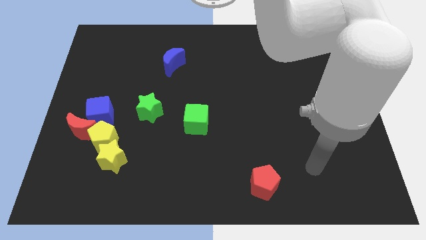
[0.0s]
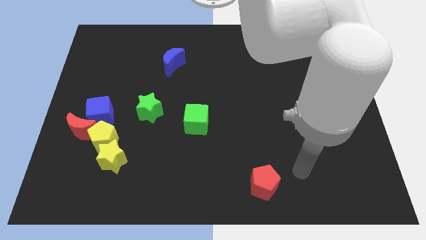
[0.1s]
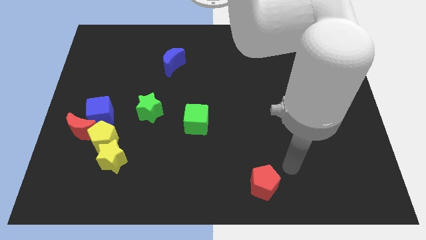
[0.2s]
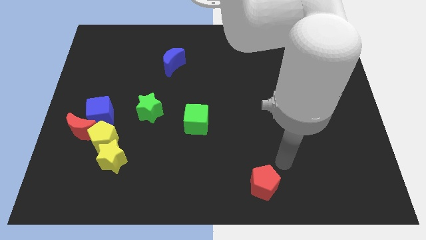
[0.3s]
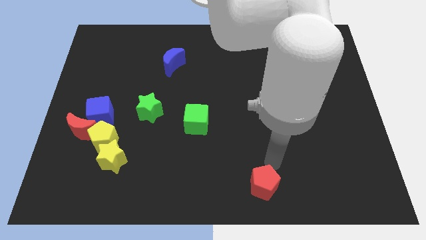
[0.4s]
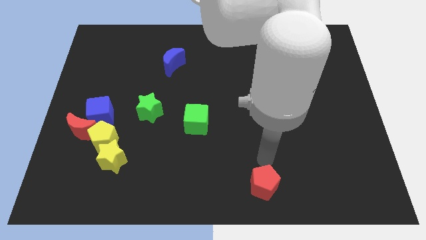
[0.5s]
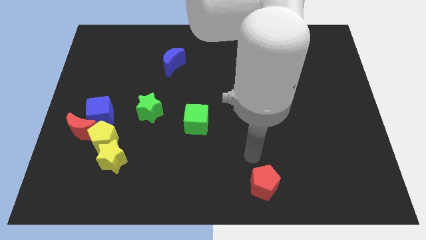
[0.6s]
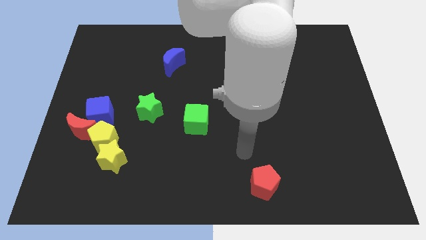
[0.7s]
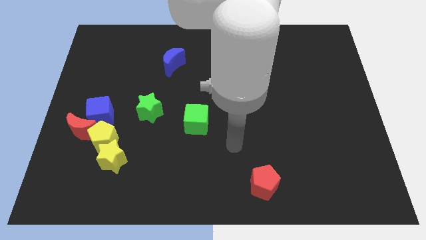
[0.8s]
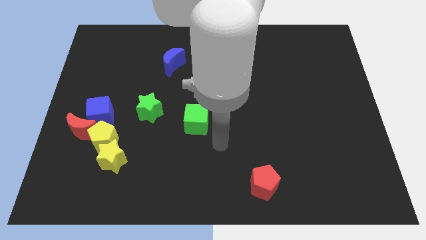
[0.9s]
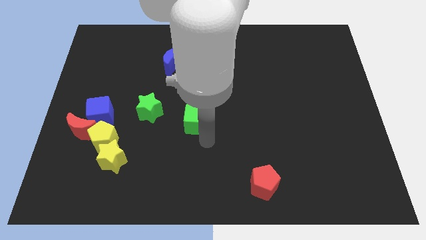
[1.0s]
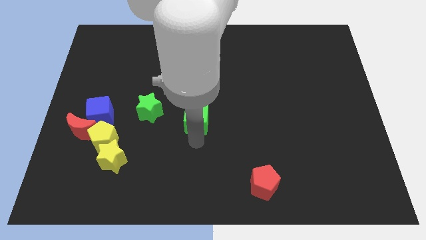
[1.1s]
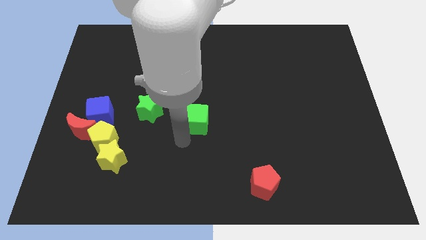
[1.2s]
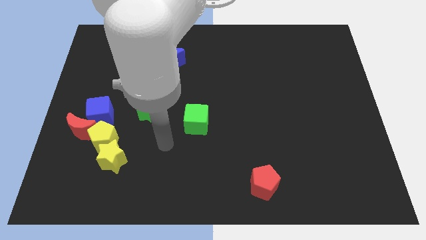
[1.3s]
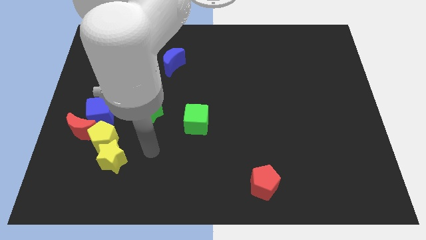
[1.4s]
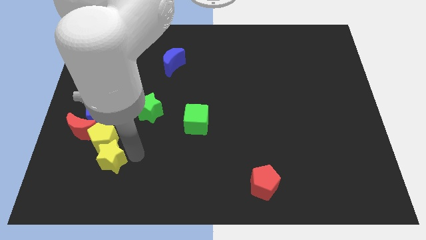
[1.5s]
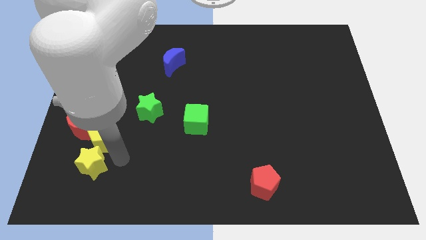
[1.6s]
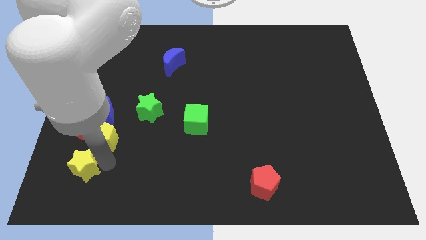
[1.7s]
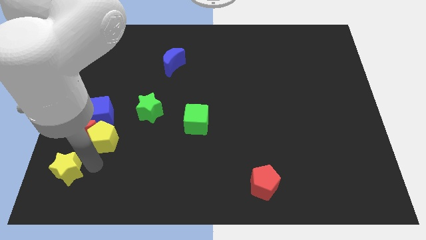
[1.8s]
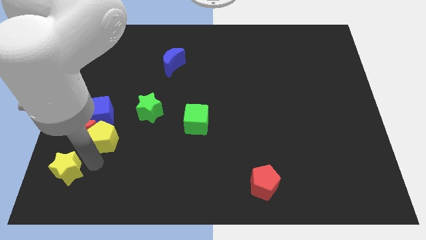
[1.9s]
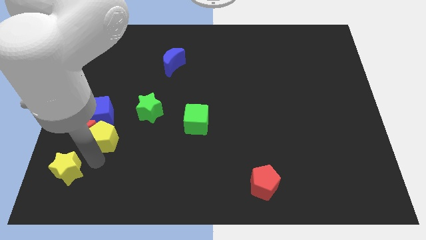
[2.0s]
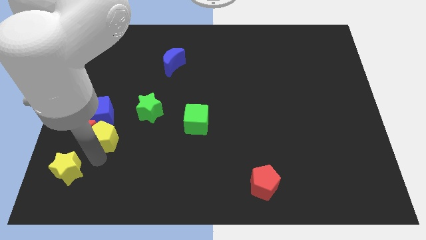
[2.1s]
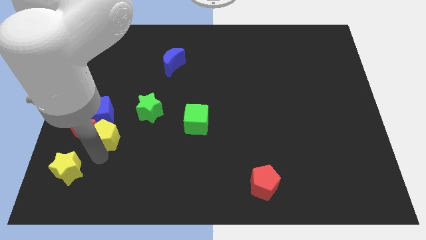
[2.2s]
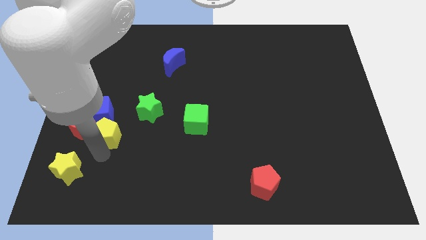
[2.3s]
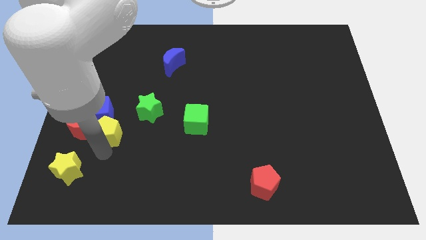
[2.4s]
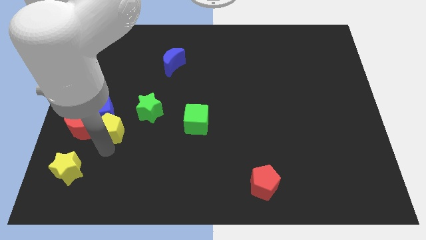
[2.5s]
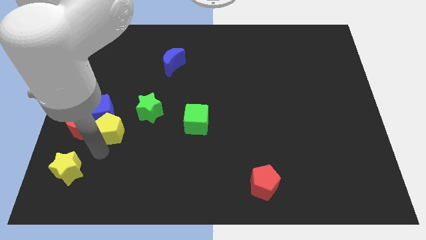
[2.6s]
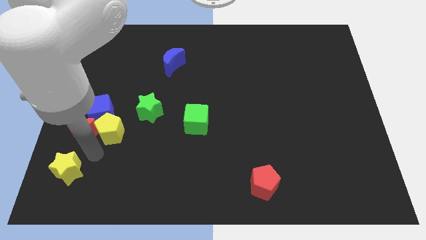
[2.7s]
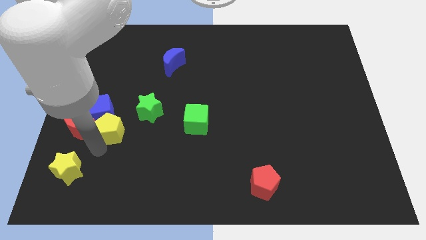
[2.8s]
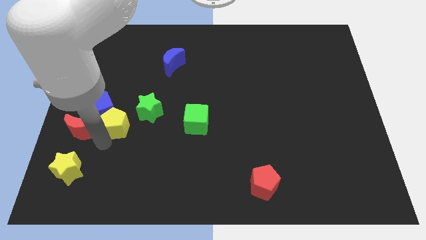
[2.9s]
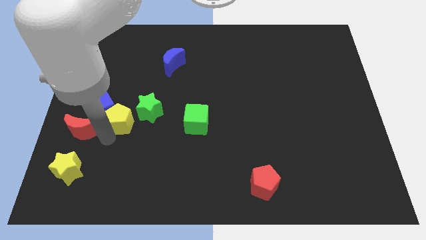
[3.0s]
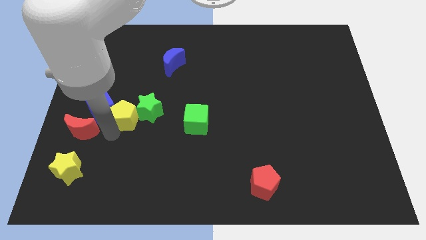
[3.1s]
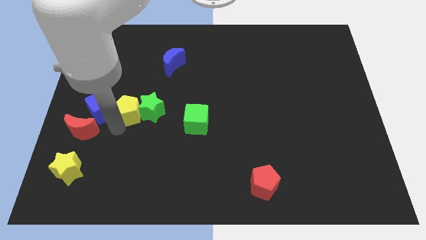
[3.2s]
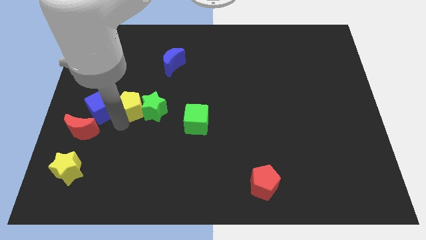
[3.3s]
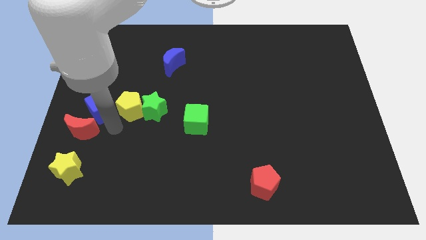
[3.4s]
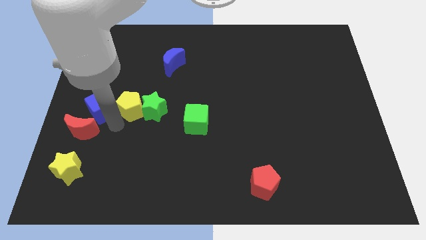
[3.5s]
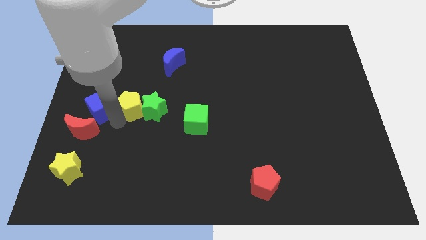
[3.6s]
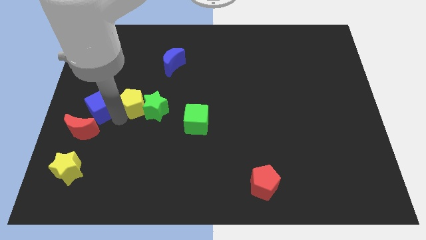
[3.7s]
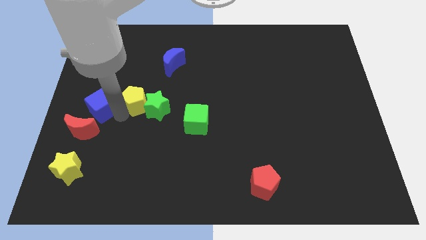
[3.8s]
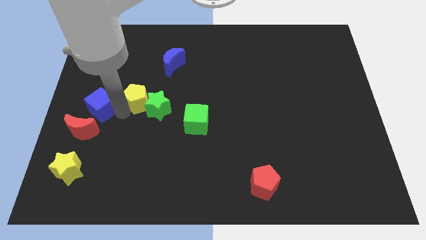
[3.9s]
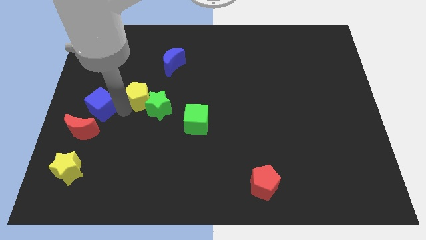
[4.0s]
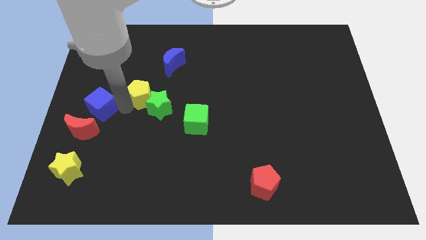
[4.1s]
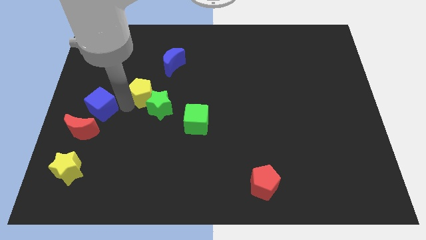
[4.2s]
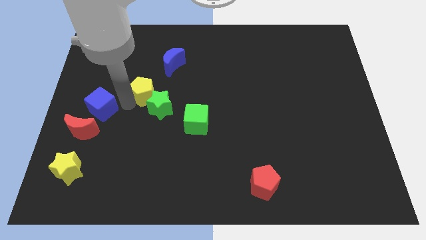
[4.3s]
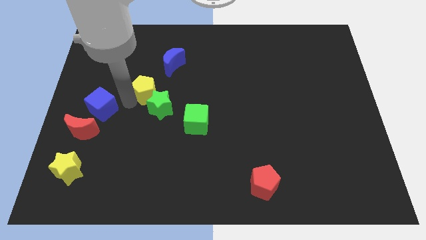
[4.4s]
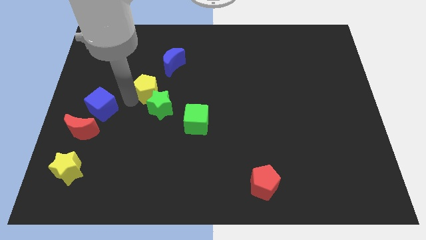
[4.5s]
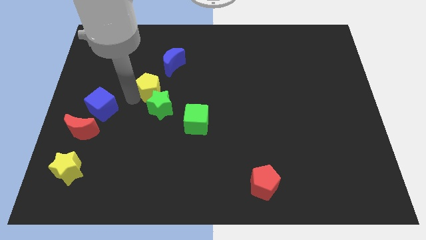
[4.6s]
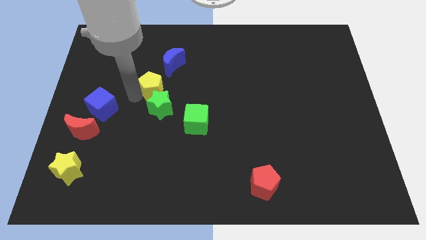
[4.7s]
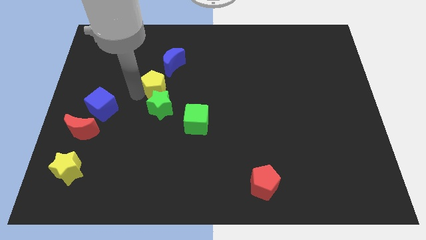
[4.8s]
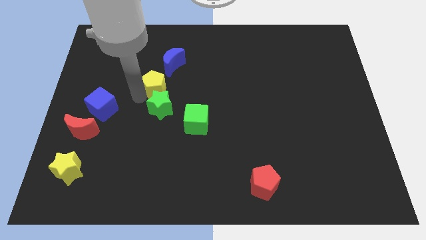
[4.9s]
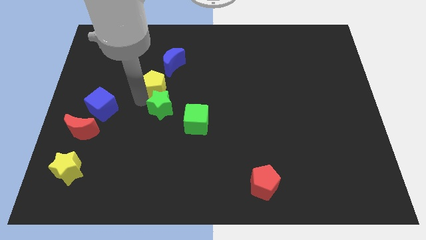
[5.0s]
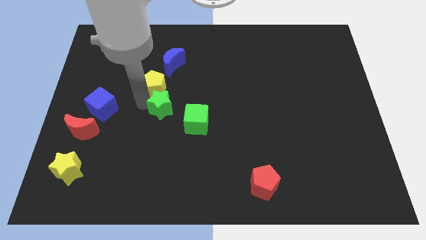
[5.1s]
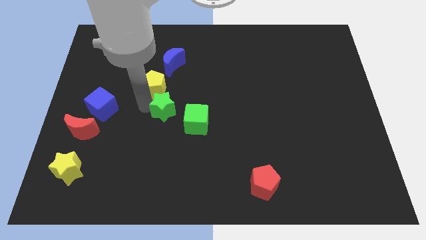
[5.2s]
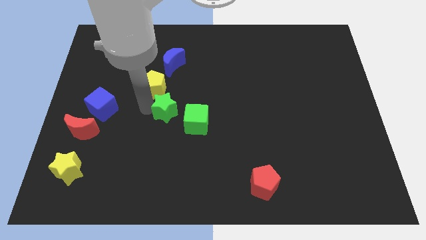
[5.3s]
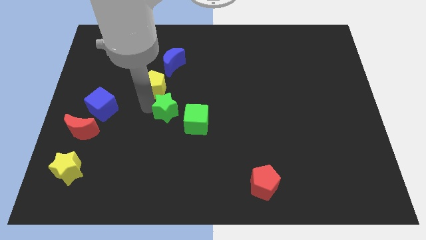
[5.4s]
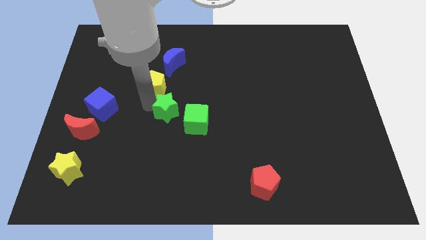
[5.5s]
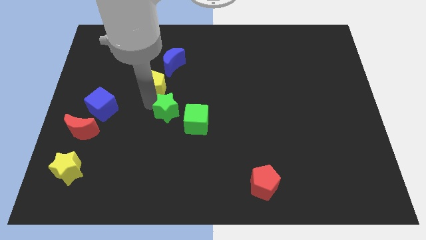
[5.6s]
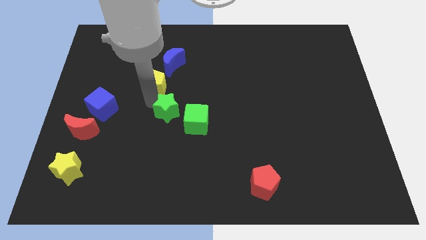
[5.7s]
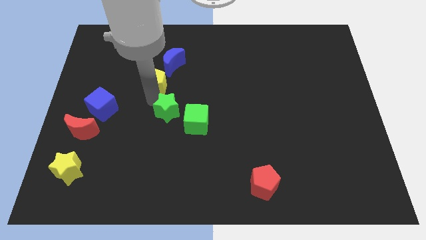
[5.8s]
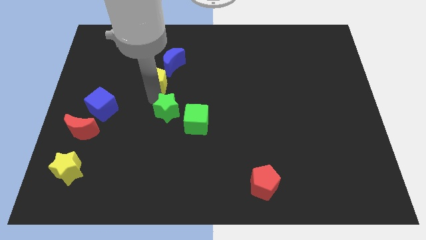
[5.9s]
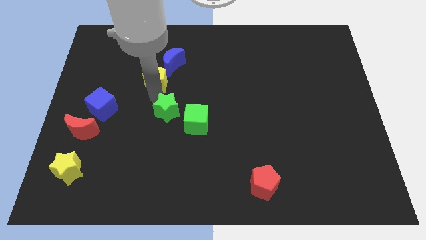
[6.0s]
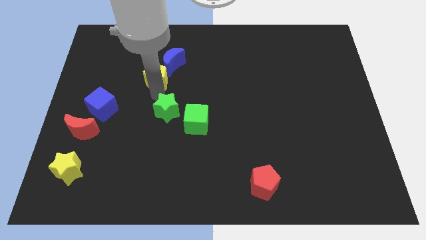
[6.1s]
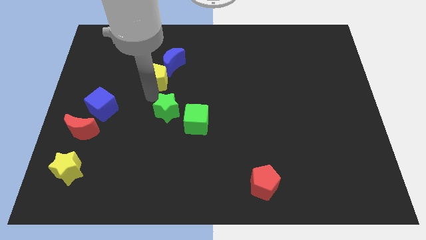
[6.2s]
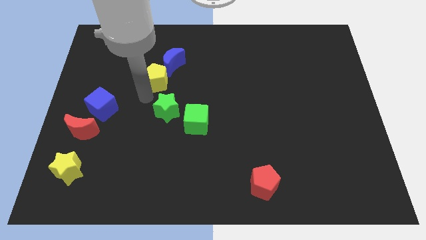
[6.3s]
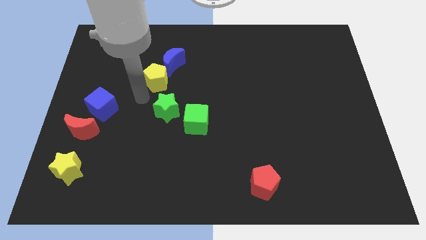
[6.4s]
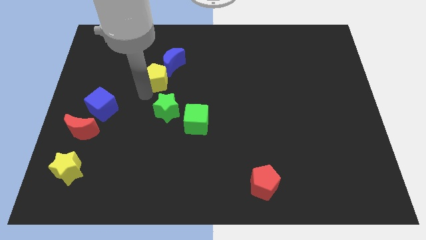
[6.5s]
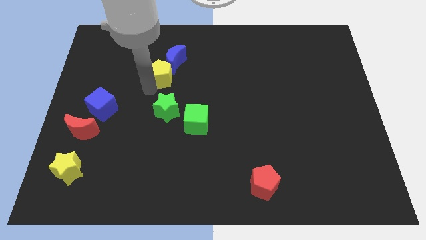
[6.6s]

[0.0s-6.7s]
push the yellow pentagon to the blue moon
